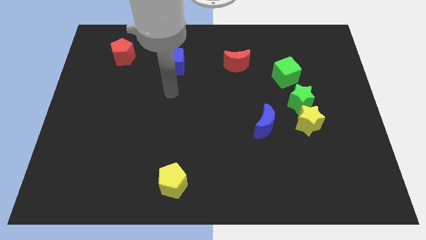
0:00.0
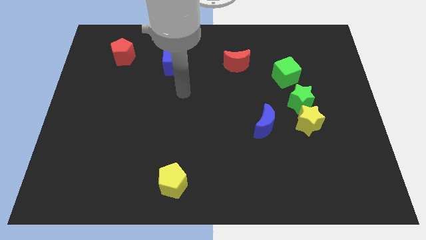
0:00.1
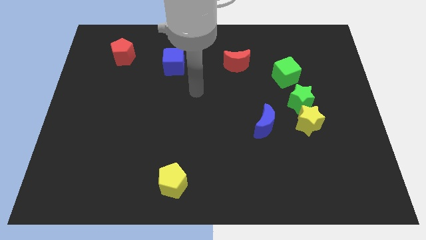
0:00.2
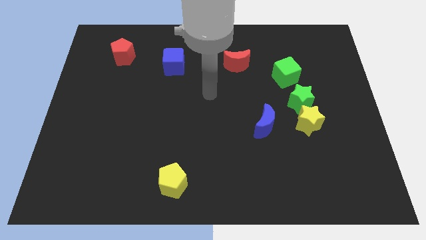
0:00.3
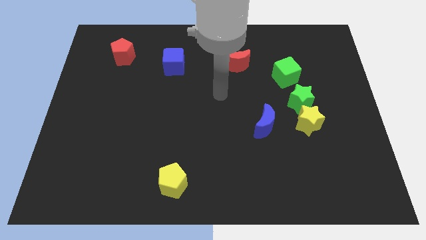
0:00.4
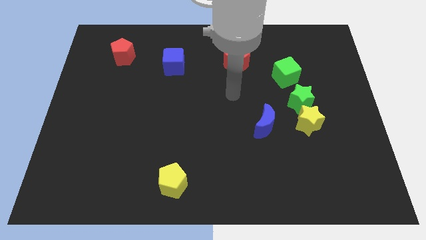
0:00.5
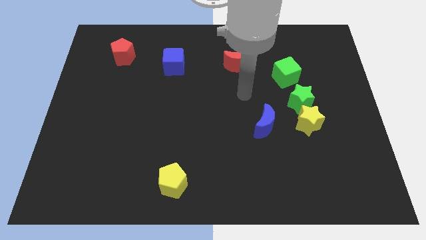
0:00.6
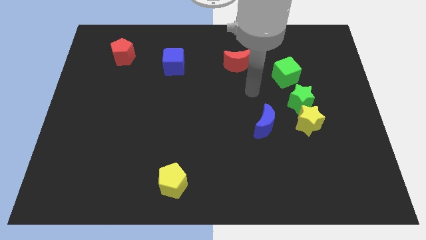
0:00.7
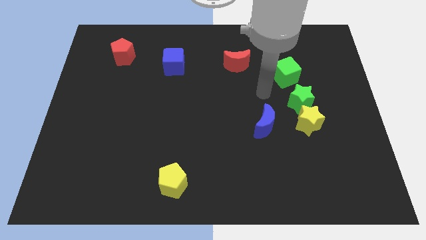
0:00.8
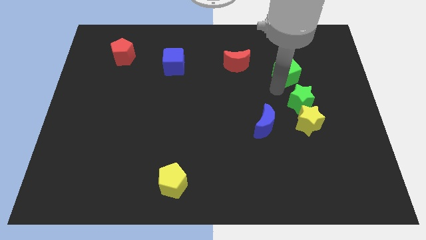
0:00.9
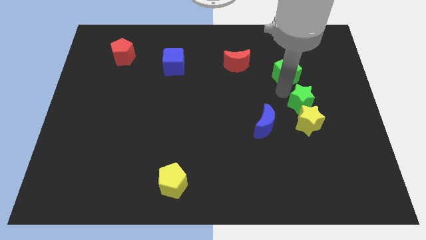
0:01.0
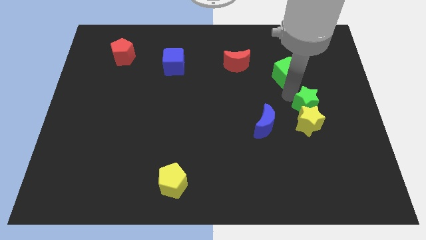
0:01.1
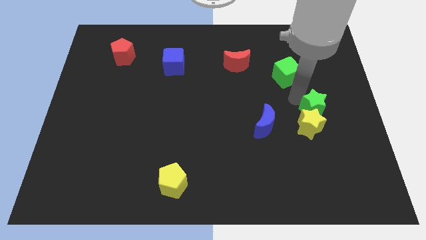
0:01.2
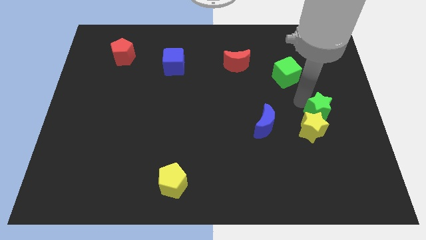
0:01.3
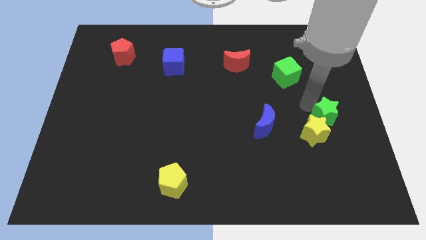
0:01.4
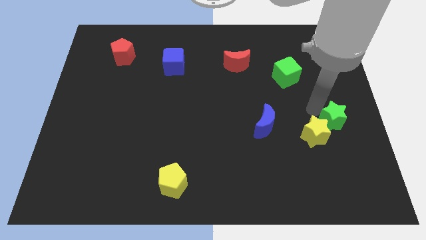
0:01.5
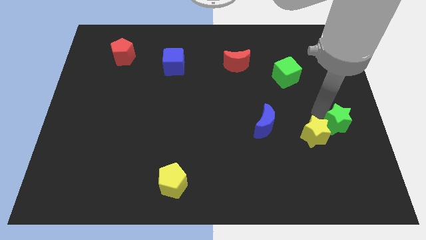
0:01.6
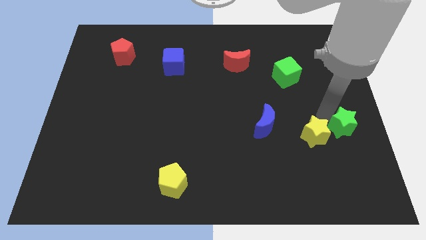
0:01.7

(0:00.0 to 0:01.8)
move the green star away from the yellow star and green cube

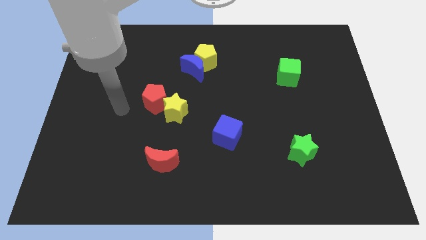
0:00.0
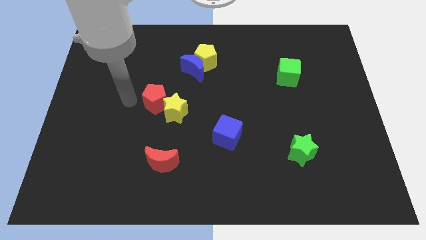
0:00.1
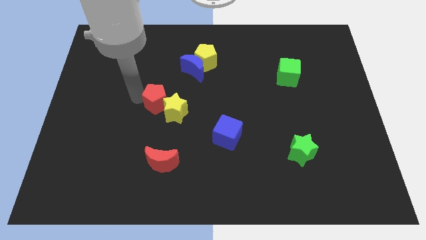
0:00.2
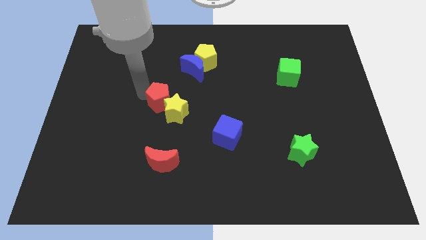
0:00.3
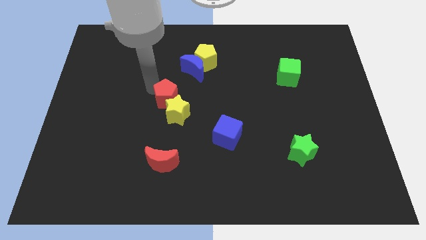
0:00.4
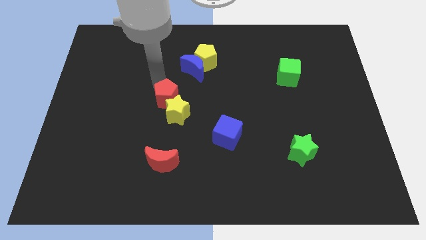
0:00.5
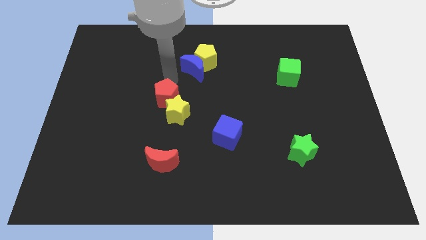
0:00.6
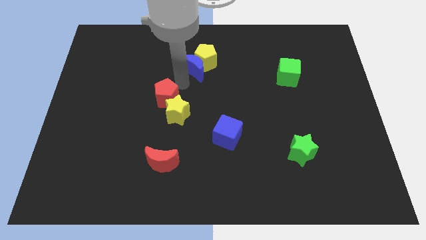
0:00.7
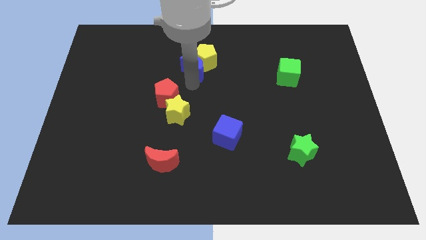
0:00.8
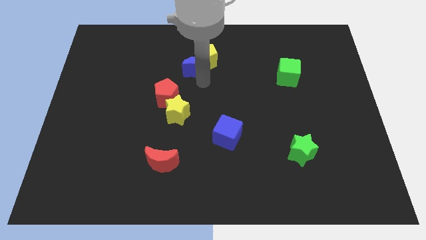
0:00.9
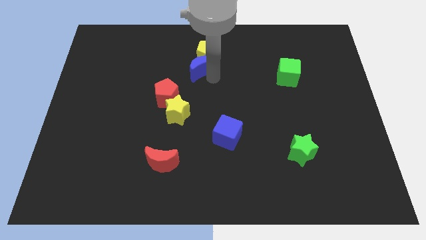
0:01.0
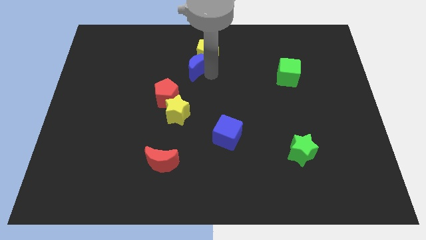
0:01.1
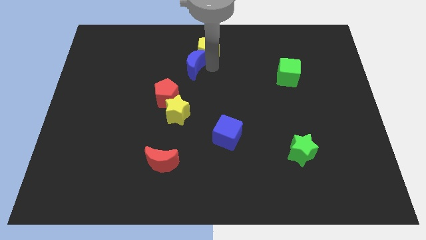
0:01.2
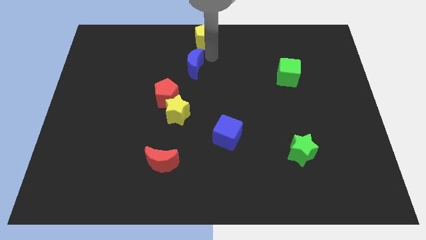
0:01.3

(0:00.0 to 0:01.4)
pull the blue moon apart from the yellow pentagon

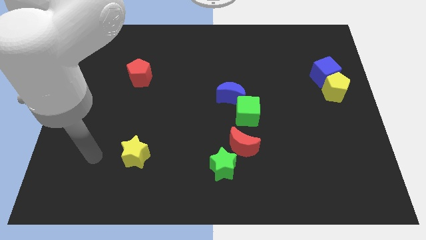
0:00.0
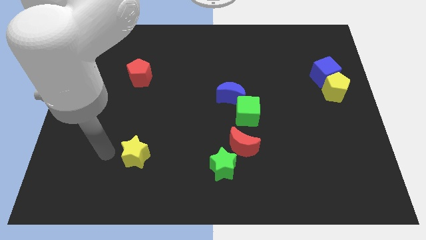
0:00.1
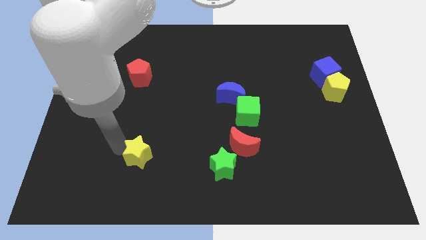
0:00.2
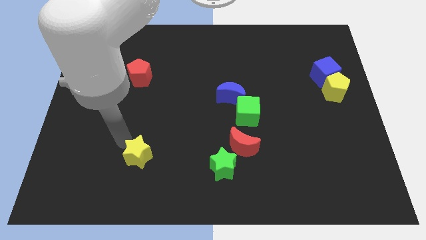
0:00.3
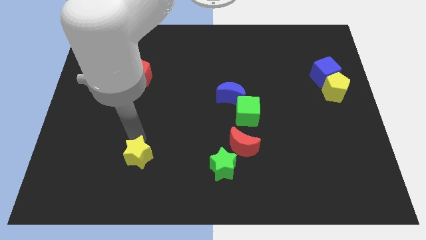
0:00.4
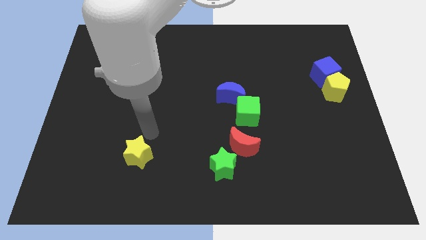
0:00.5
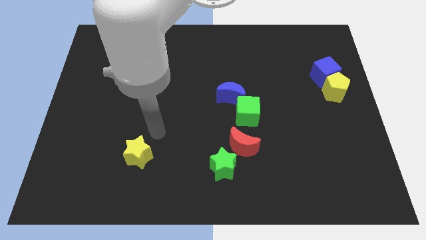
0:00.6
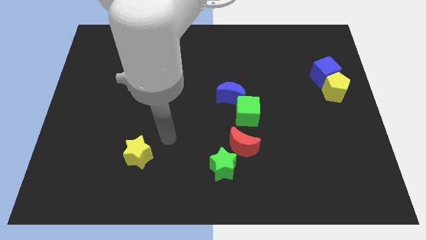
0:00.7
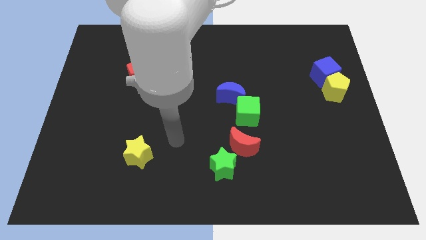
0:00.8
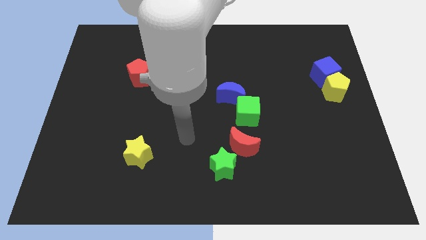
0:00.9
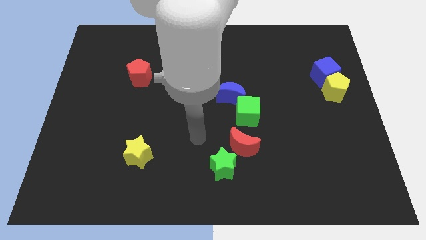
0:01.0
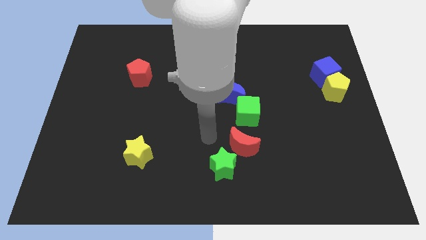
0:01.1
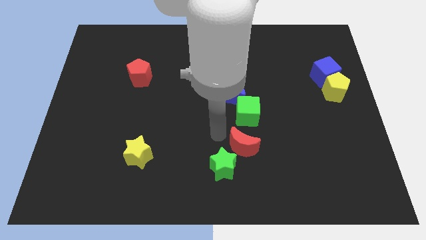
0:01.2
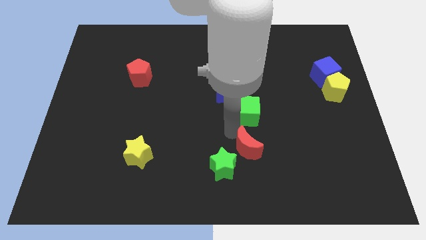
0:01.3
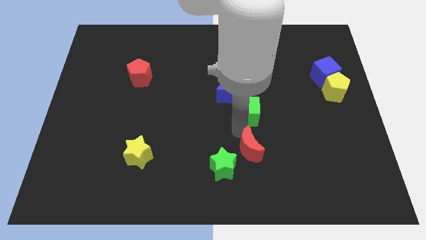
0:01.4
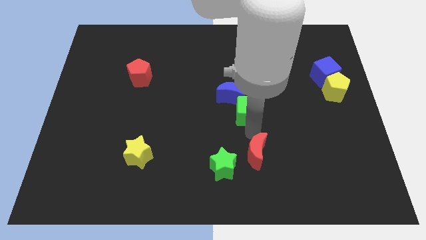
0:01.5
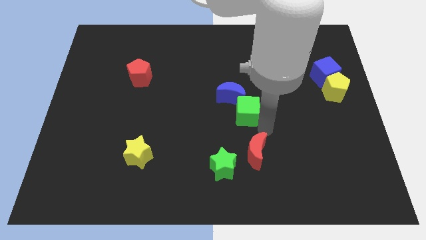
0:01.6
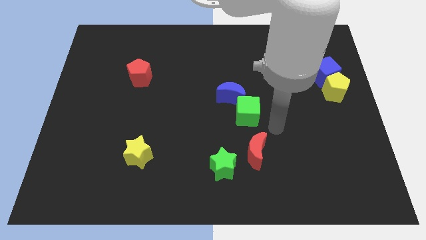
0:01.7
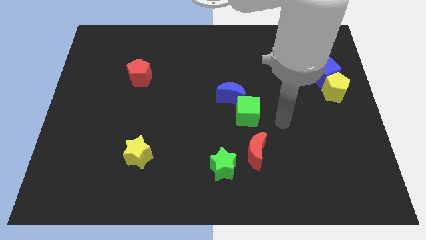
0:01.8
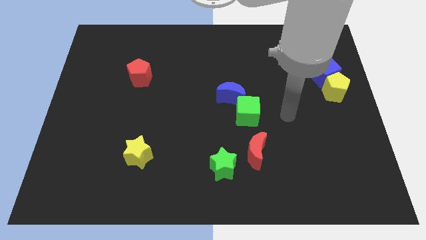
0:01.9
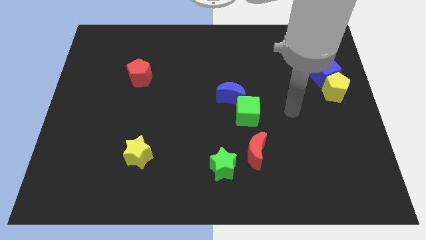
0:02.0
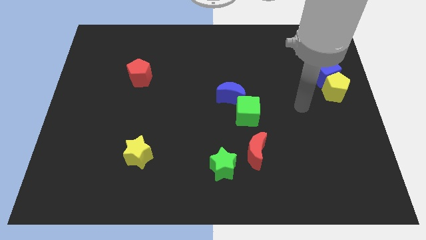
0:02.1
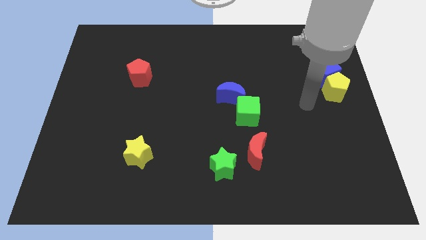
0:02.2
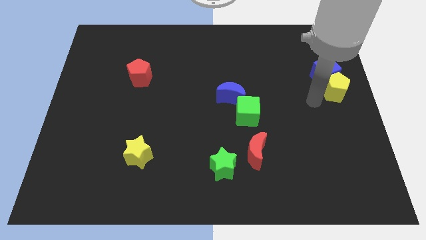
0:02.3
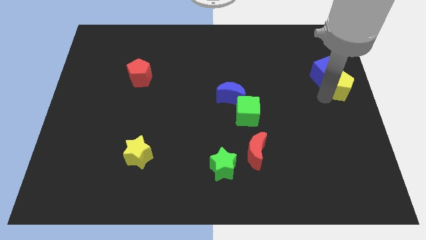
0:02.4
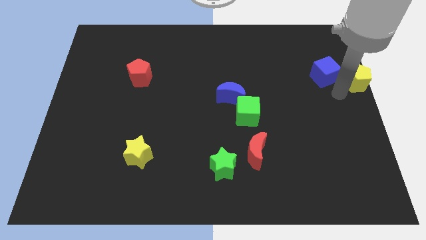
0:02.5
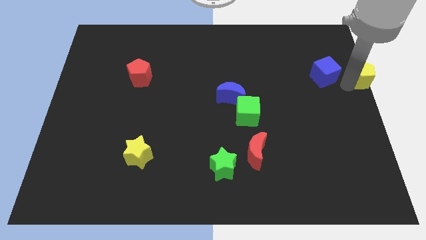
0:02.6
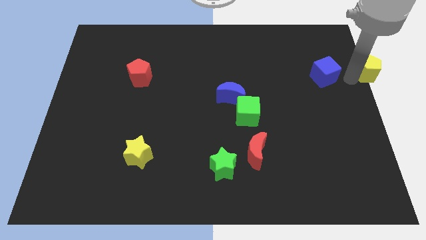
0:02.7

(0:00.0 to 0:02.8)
separate the blue cube from the yellow pentagon

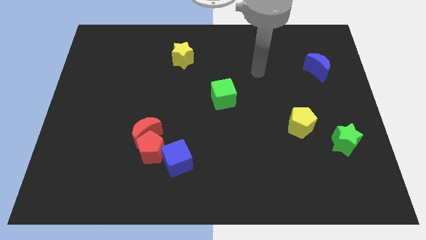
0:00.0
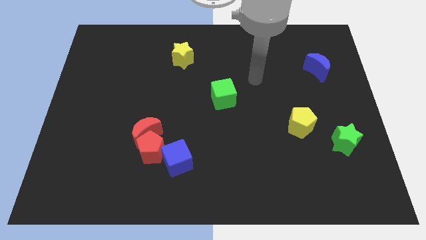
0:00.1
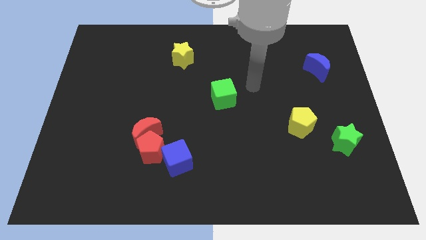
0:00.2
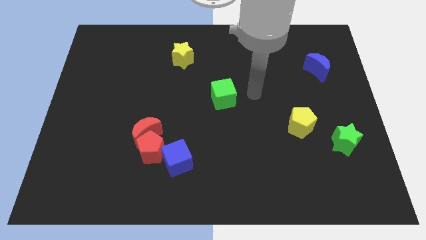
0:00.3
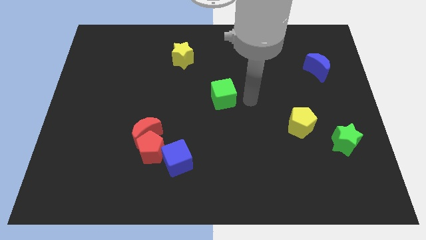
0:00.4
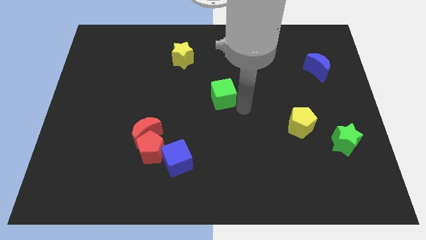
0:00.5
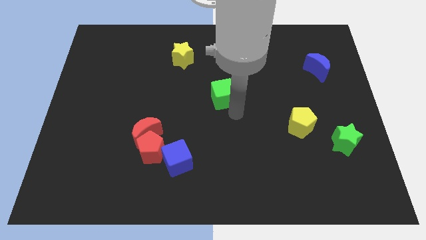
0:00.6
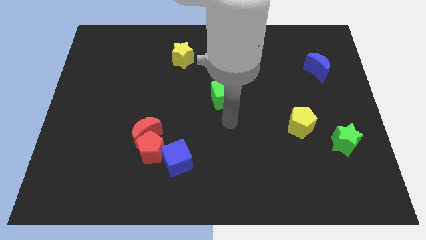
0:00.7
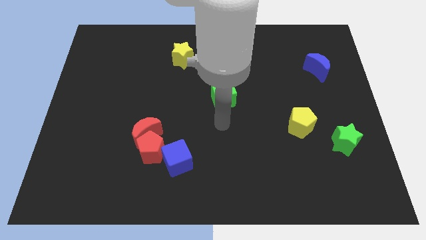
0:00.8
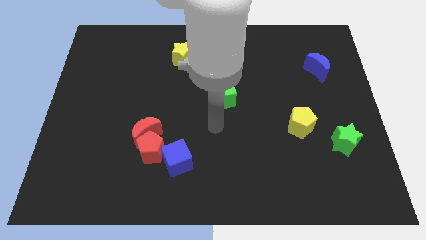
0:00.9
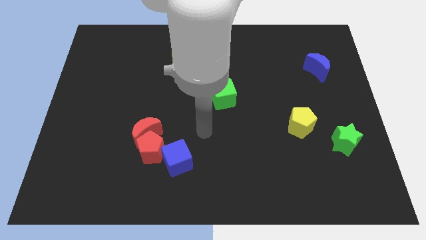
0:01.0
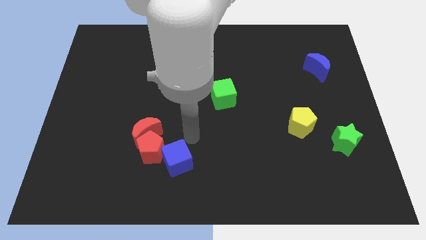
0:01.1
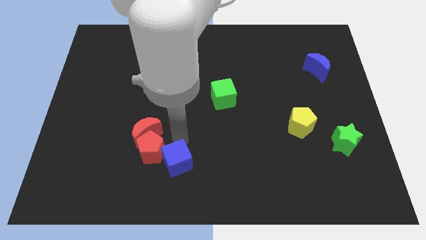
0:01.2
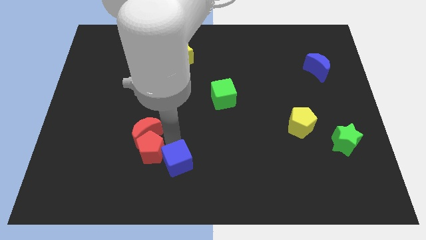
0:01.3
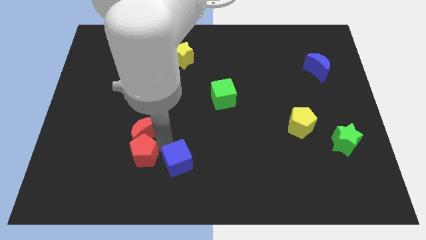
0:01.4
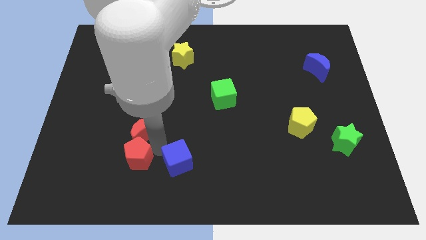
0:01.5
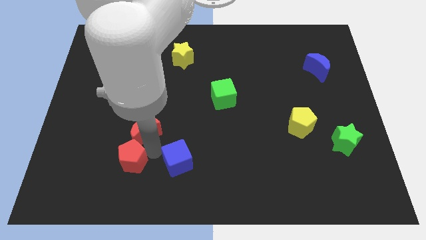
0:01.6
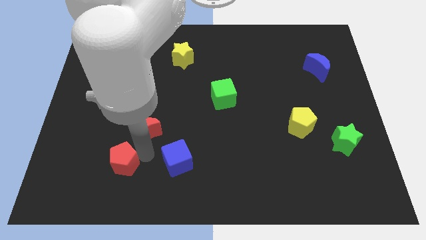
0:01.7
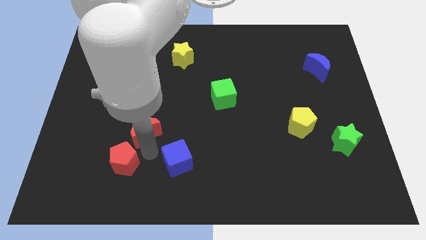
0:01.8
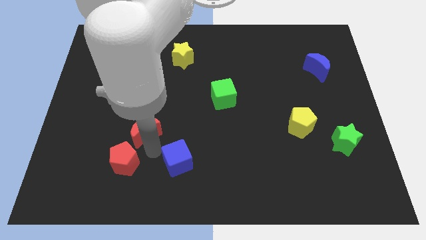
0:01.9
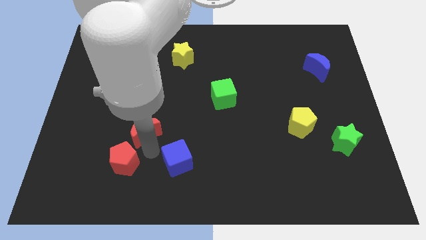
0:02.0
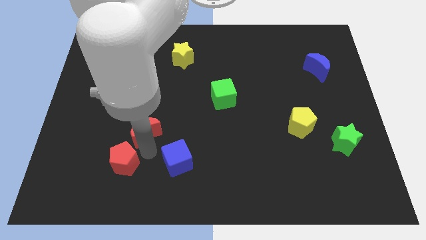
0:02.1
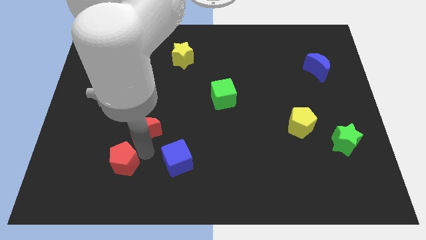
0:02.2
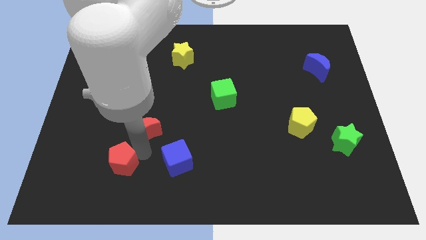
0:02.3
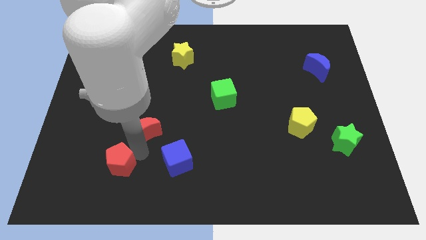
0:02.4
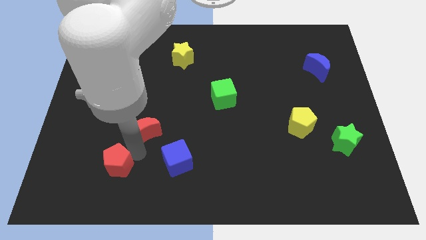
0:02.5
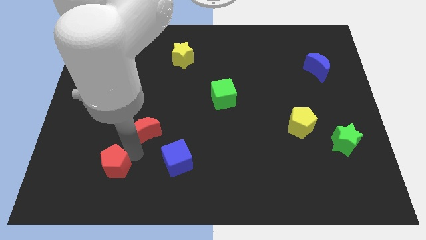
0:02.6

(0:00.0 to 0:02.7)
move the red pentagon away from the red moon and blue cube

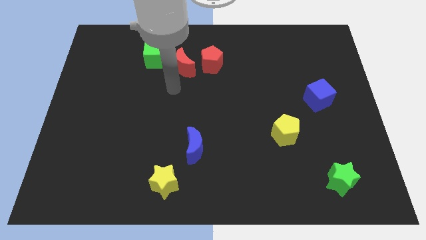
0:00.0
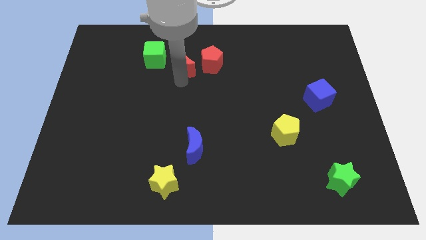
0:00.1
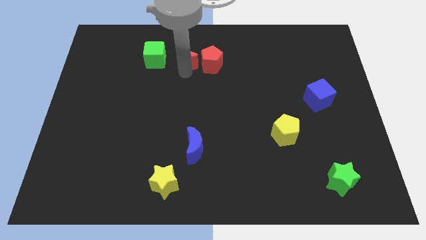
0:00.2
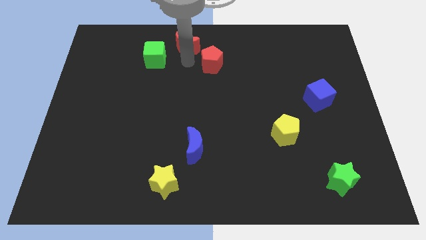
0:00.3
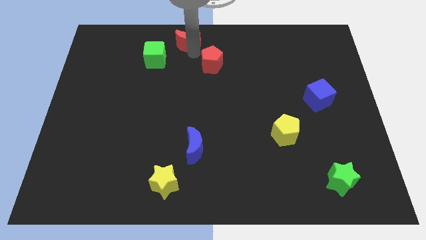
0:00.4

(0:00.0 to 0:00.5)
move the red pentagon away from the red moon

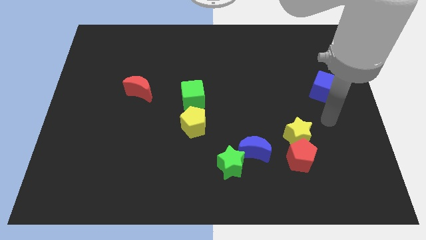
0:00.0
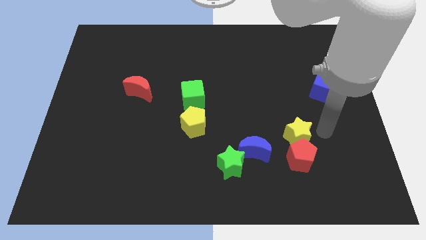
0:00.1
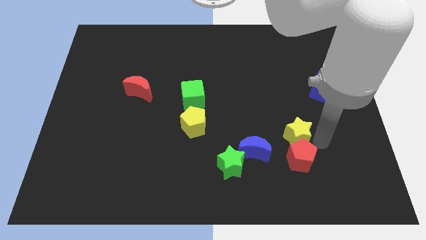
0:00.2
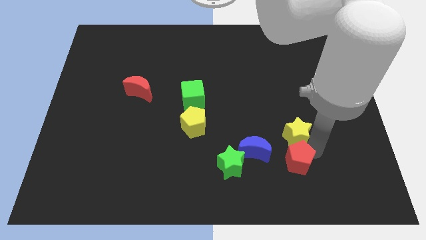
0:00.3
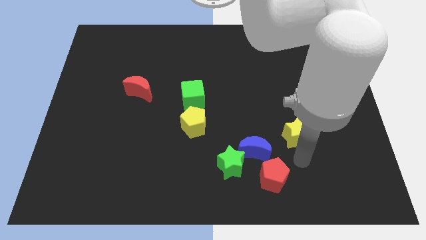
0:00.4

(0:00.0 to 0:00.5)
pull the yellow star apart from the red pentagon
